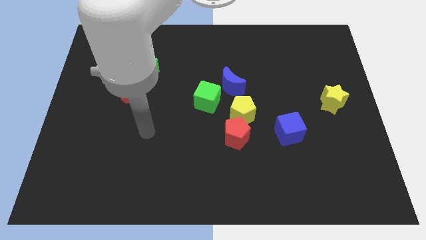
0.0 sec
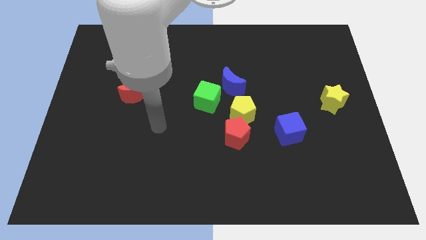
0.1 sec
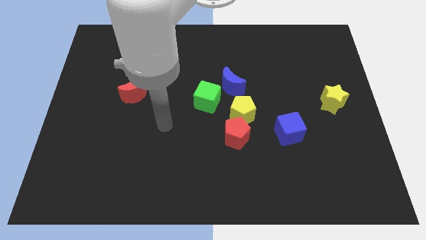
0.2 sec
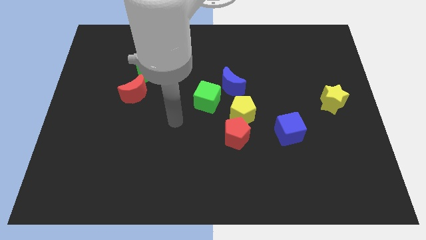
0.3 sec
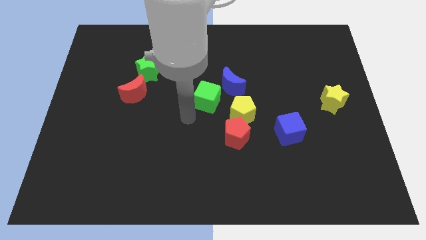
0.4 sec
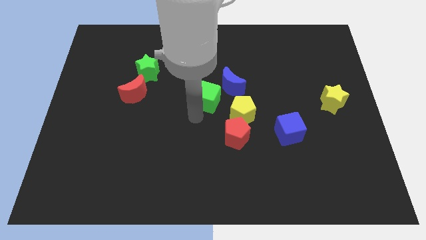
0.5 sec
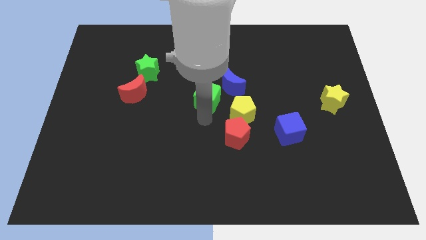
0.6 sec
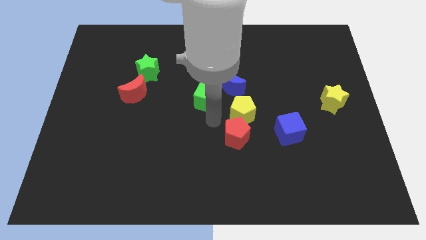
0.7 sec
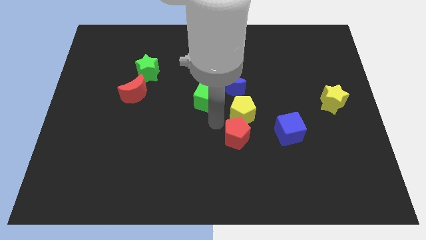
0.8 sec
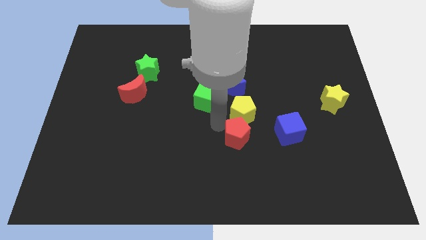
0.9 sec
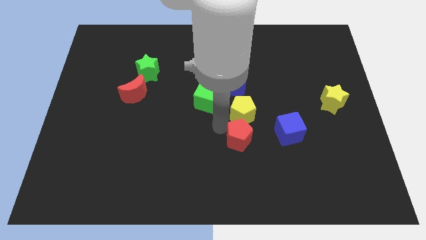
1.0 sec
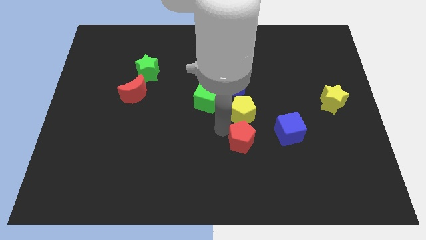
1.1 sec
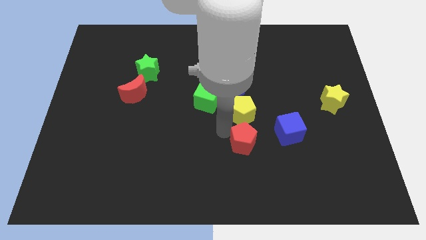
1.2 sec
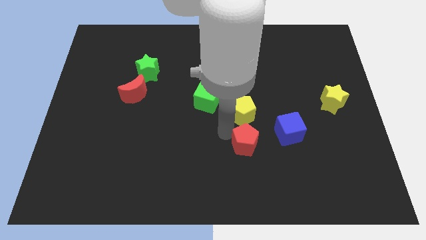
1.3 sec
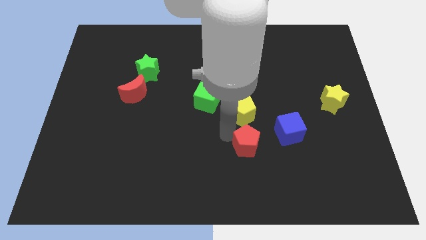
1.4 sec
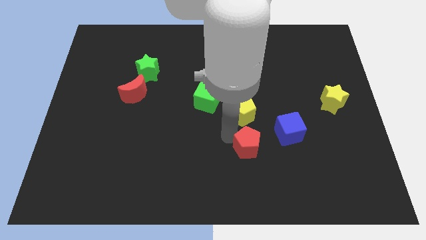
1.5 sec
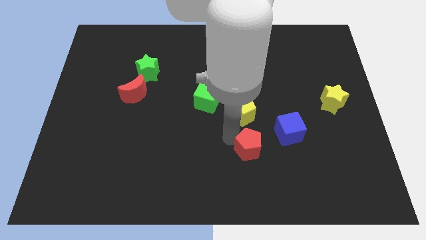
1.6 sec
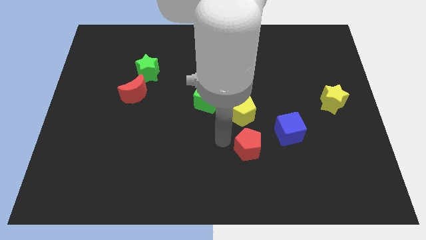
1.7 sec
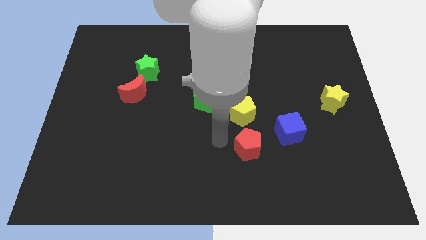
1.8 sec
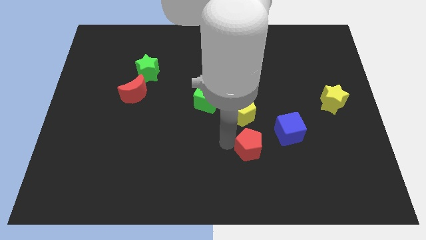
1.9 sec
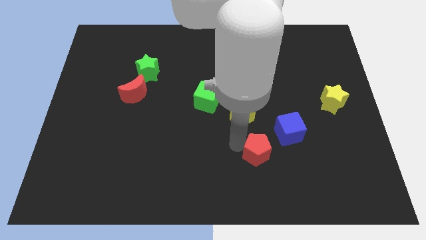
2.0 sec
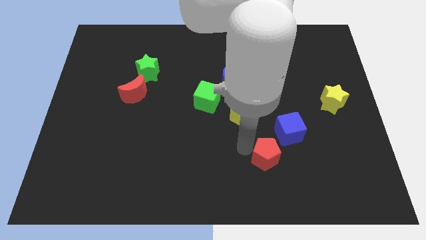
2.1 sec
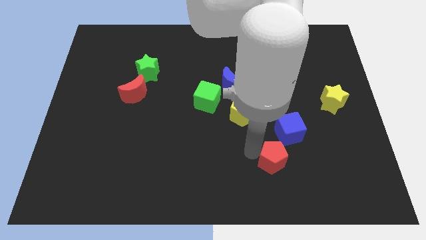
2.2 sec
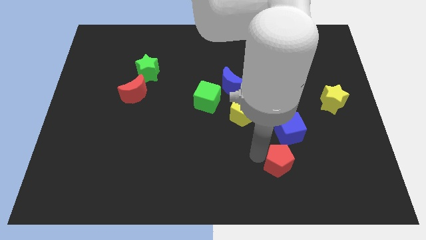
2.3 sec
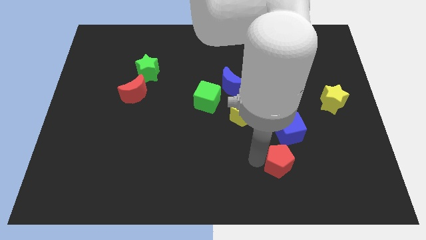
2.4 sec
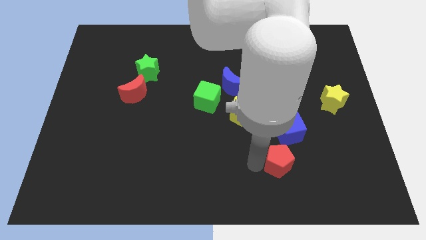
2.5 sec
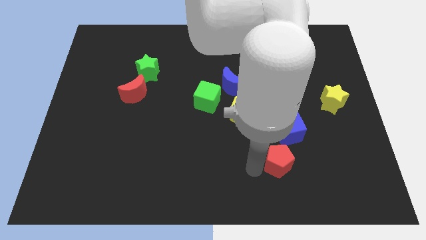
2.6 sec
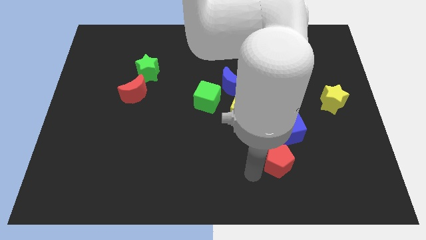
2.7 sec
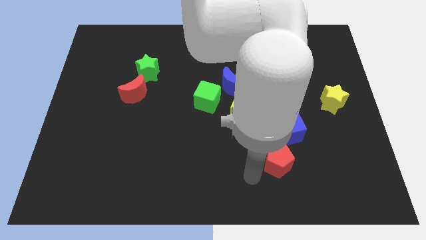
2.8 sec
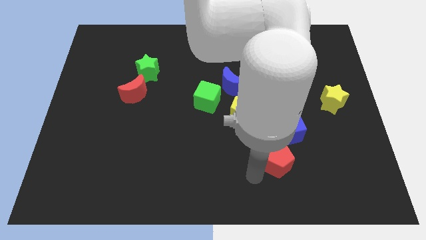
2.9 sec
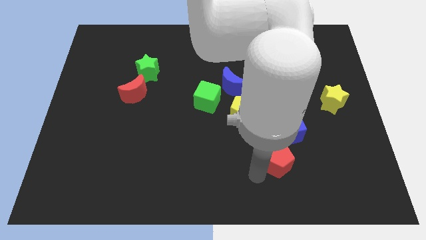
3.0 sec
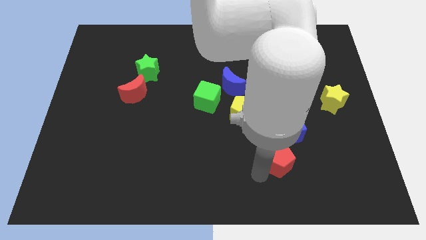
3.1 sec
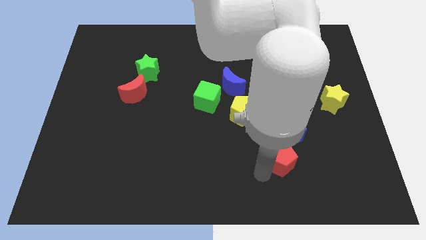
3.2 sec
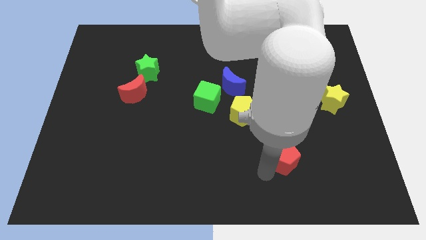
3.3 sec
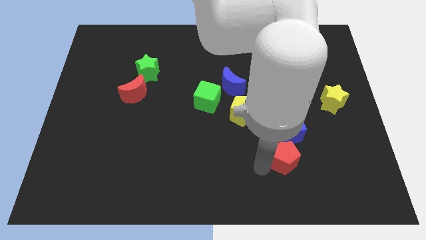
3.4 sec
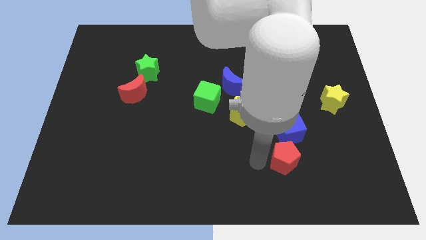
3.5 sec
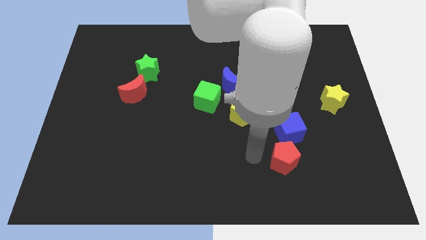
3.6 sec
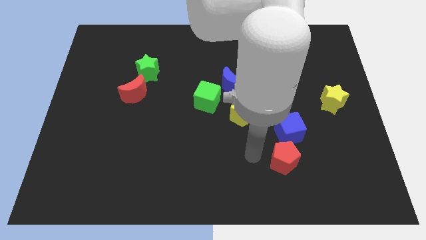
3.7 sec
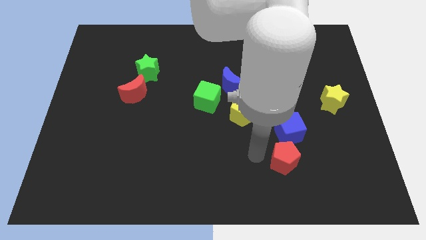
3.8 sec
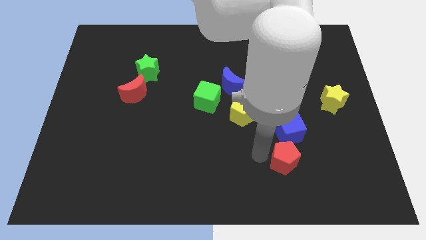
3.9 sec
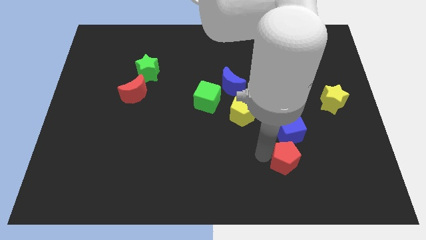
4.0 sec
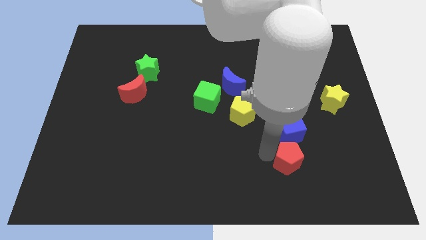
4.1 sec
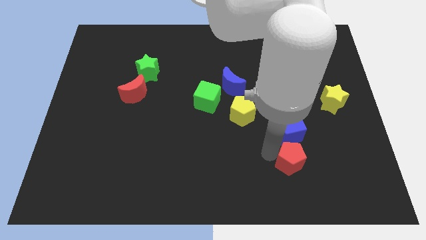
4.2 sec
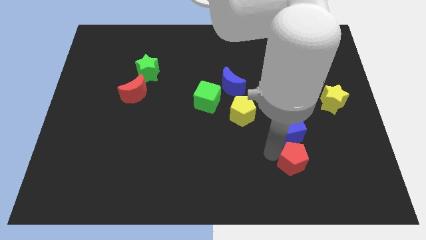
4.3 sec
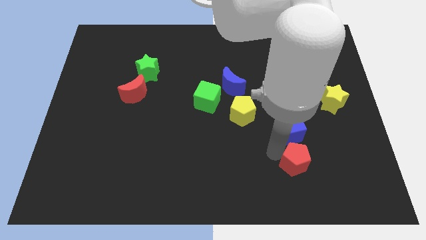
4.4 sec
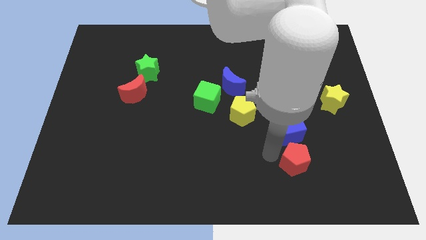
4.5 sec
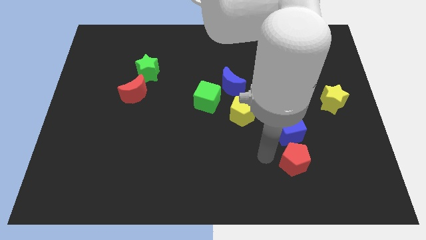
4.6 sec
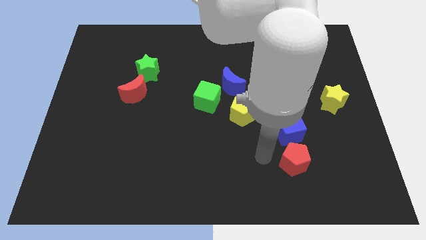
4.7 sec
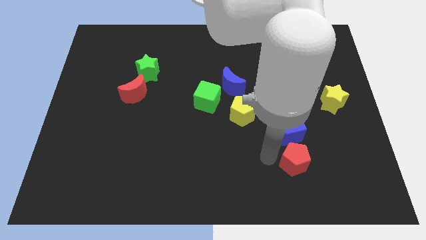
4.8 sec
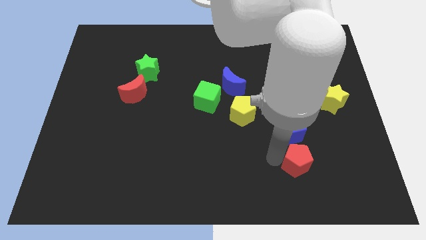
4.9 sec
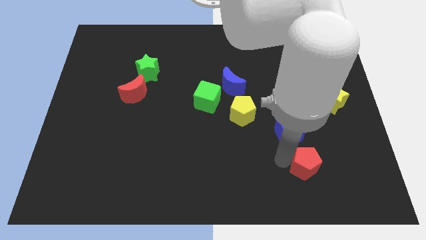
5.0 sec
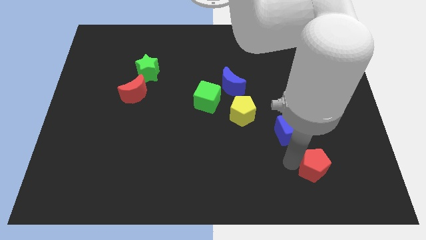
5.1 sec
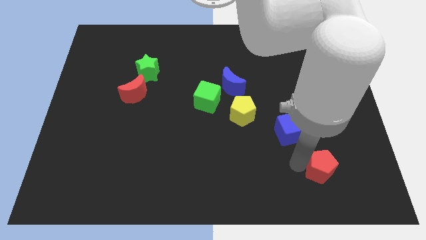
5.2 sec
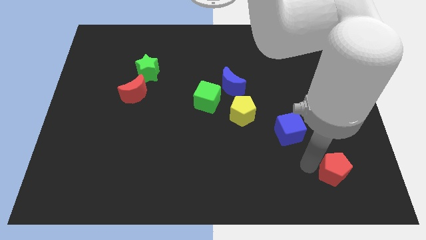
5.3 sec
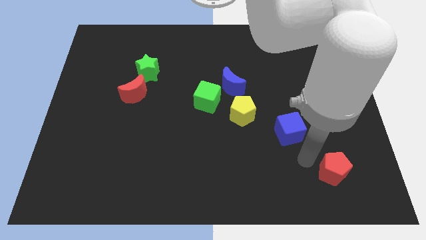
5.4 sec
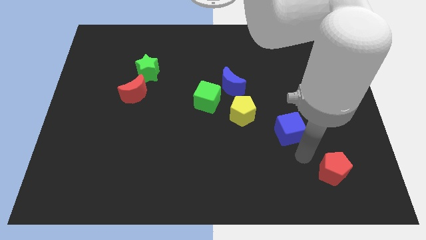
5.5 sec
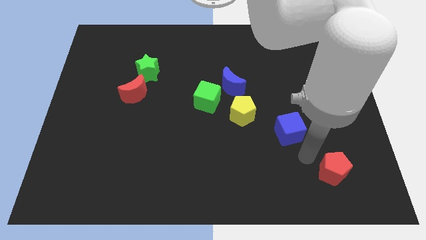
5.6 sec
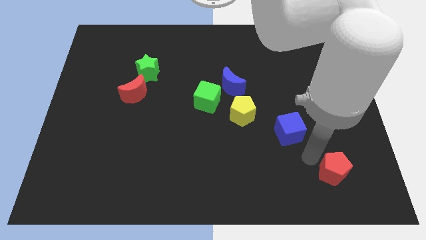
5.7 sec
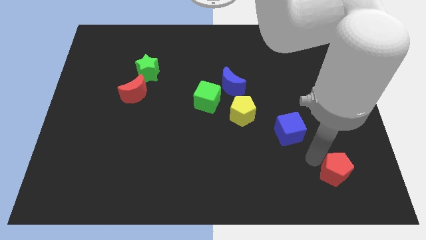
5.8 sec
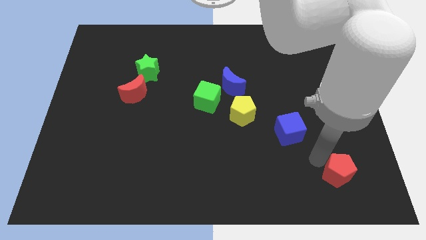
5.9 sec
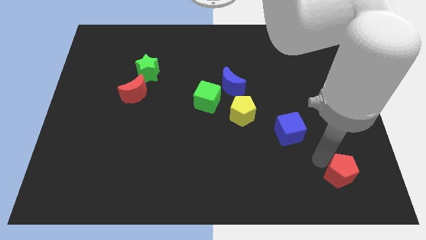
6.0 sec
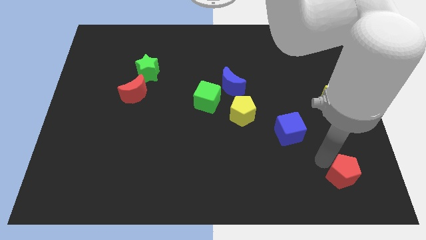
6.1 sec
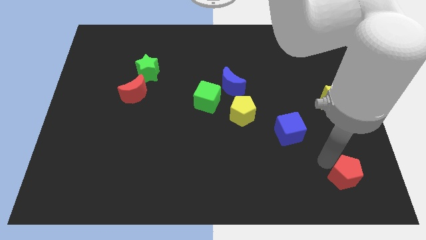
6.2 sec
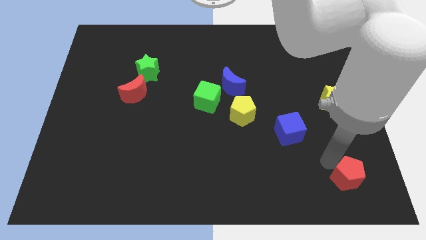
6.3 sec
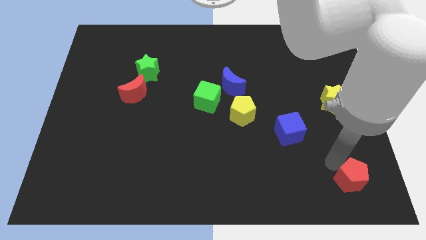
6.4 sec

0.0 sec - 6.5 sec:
slide the red pentagon to the bottom right of the board
